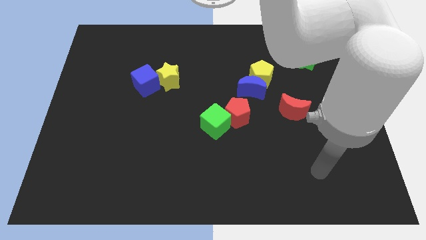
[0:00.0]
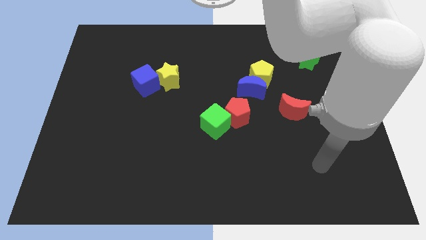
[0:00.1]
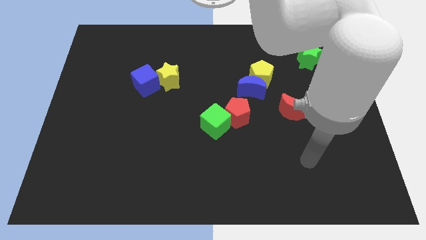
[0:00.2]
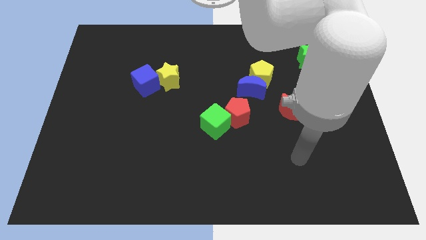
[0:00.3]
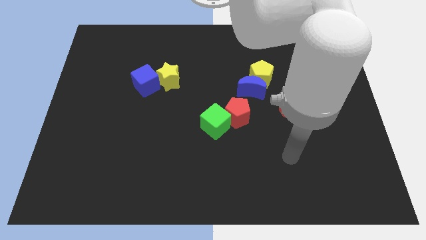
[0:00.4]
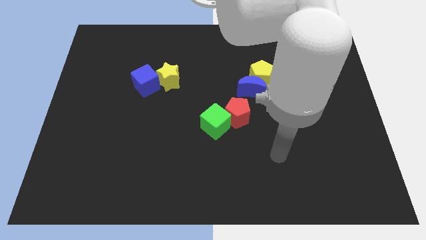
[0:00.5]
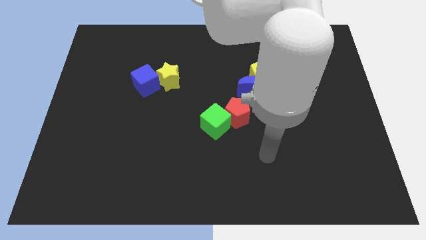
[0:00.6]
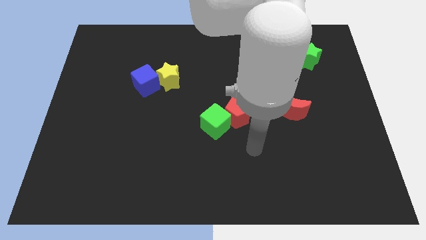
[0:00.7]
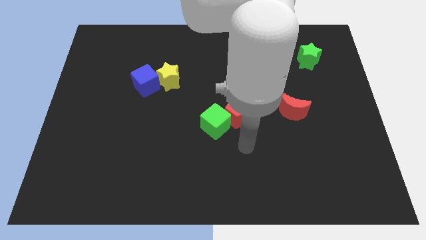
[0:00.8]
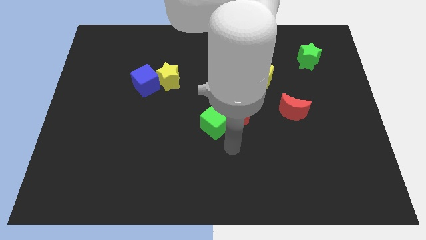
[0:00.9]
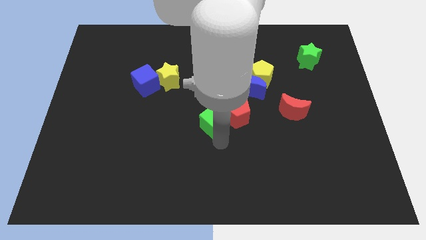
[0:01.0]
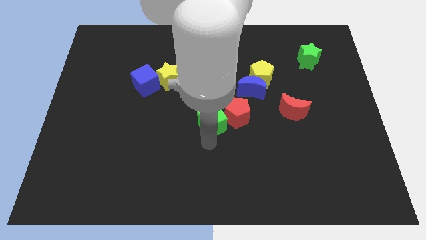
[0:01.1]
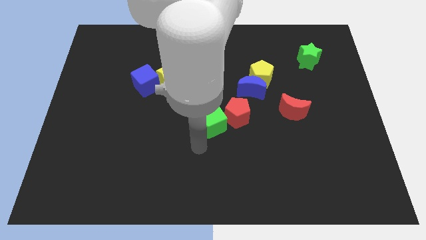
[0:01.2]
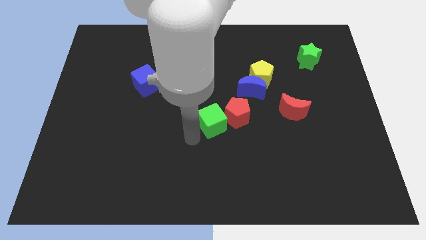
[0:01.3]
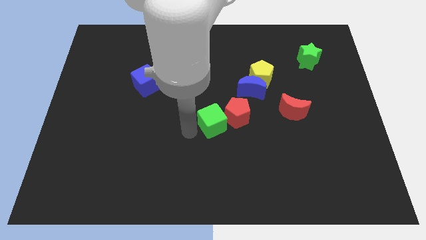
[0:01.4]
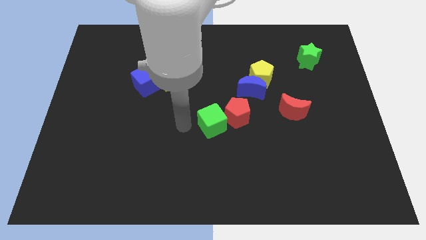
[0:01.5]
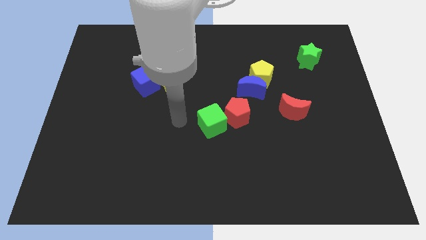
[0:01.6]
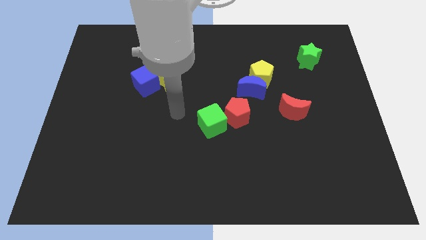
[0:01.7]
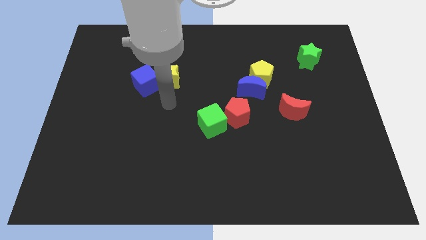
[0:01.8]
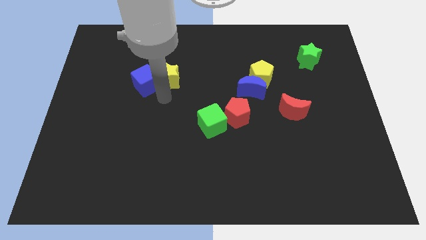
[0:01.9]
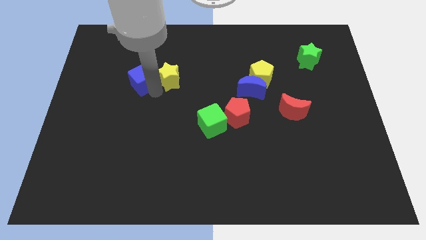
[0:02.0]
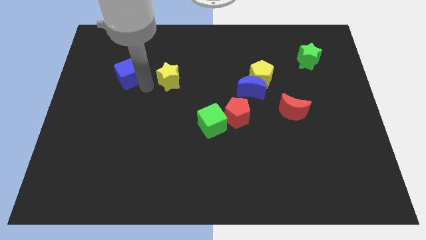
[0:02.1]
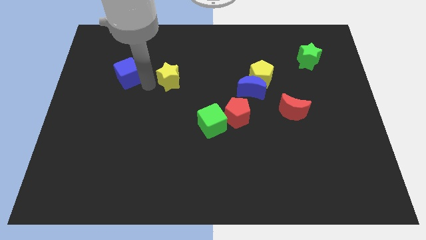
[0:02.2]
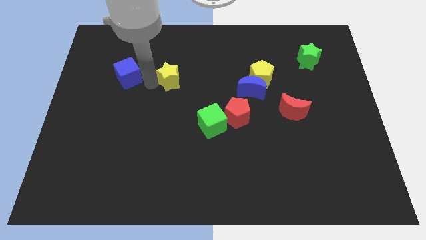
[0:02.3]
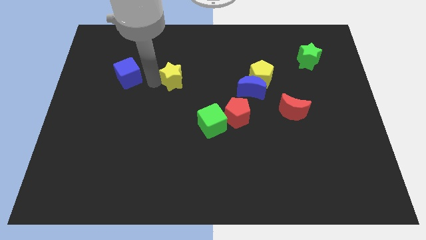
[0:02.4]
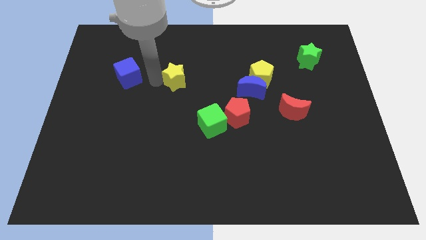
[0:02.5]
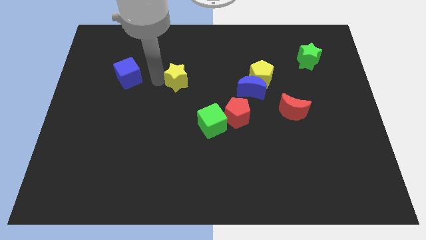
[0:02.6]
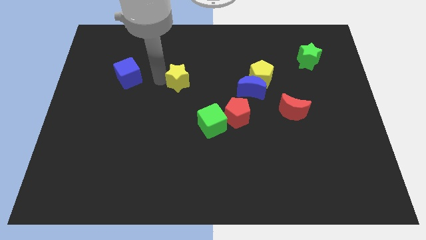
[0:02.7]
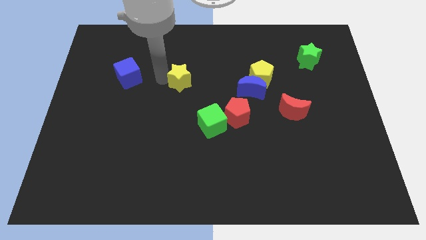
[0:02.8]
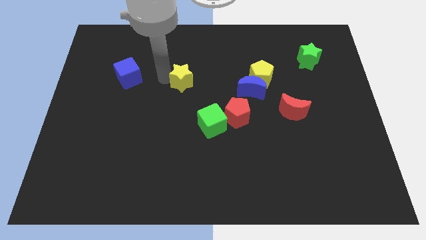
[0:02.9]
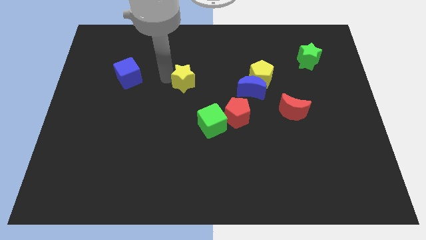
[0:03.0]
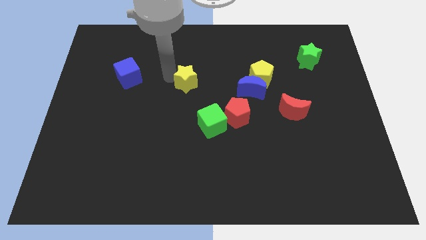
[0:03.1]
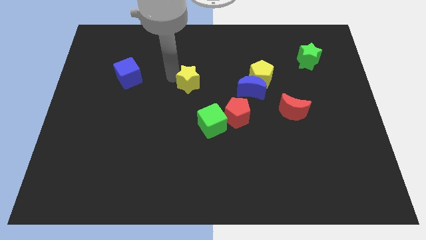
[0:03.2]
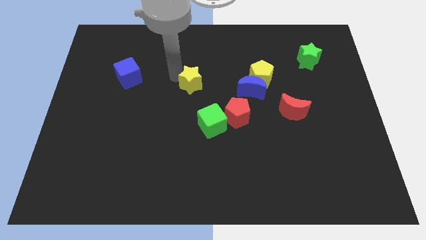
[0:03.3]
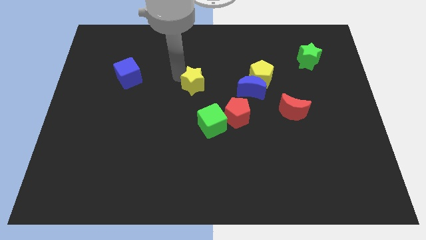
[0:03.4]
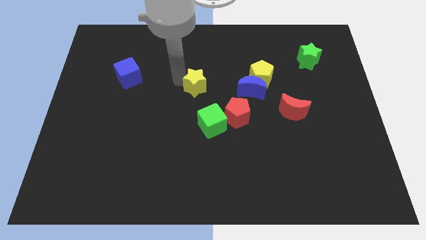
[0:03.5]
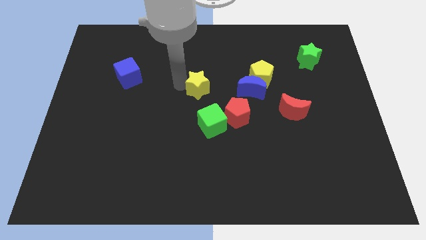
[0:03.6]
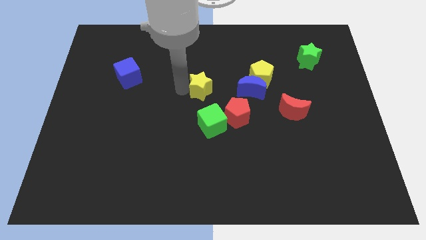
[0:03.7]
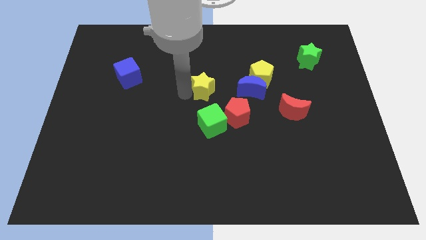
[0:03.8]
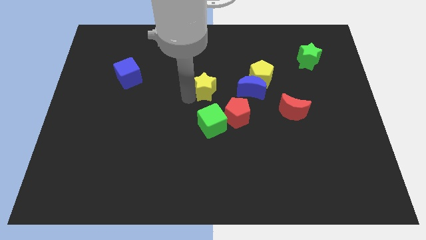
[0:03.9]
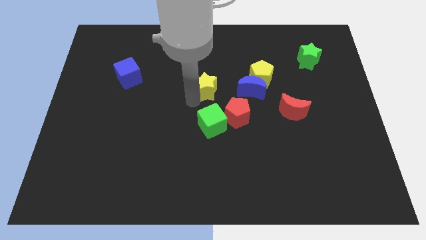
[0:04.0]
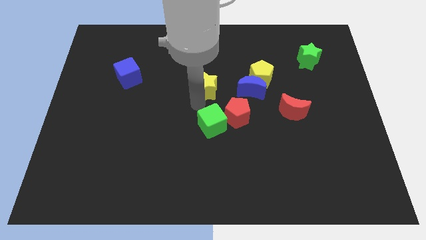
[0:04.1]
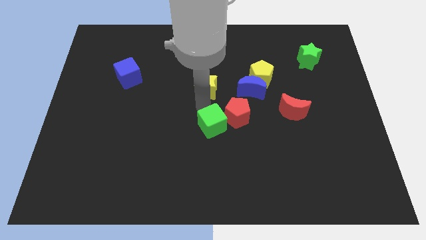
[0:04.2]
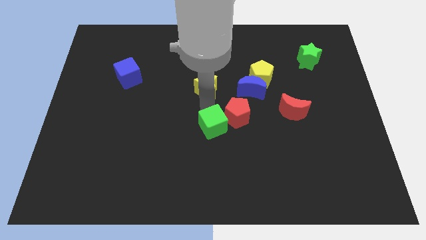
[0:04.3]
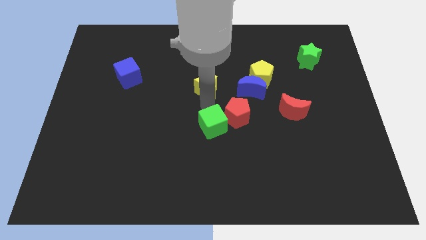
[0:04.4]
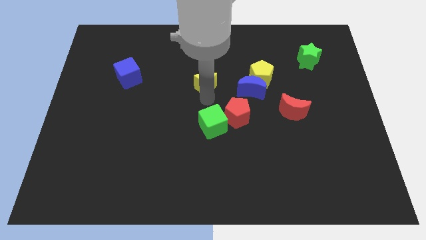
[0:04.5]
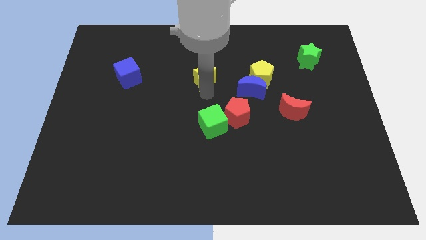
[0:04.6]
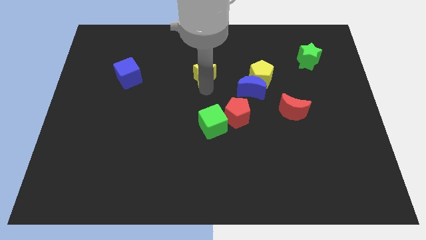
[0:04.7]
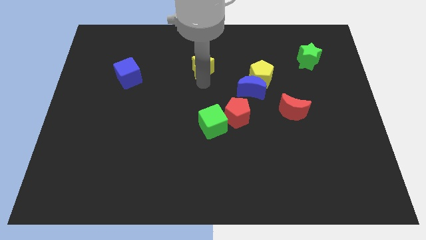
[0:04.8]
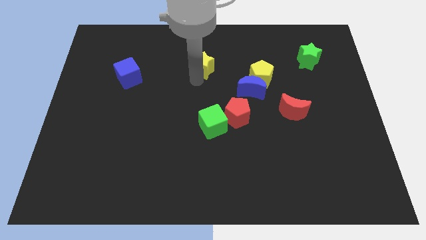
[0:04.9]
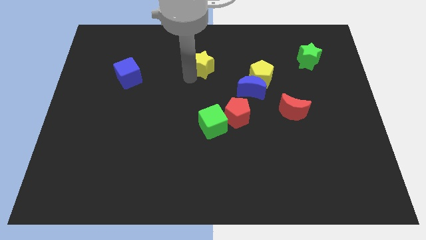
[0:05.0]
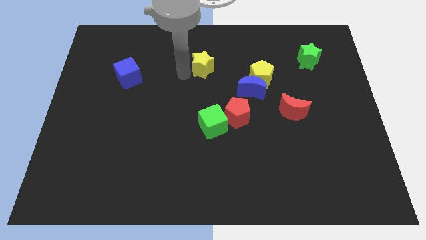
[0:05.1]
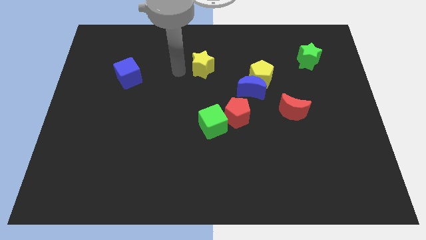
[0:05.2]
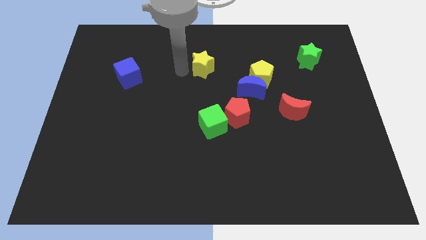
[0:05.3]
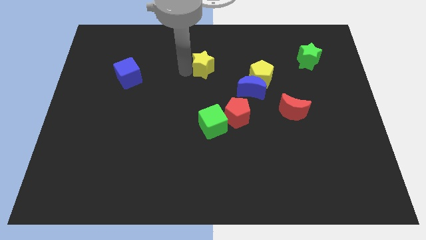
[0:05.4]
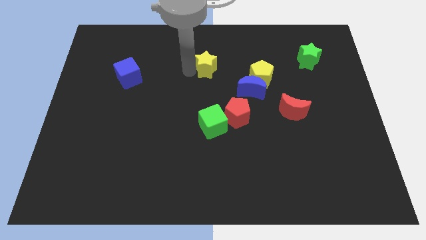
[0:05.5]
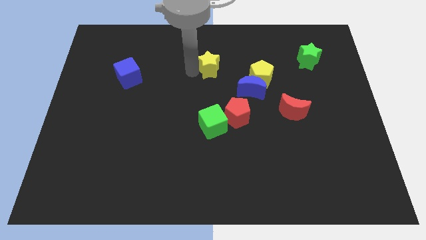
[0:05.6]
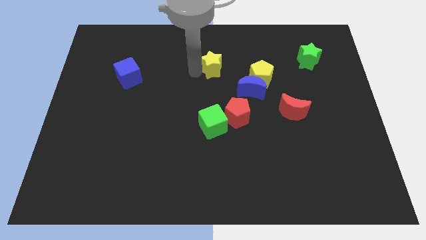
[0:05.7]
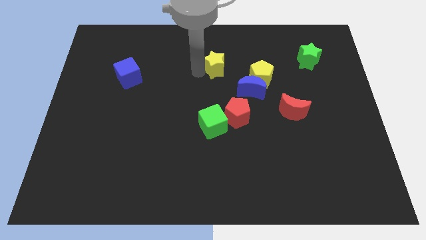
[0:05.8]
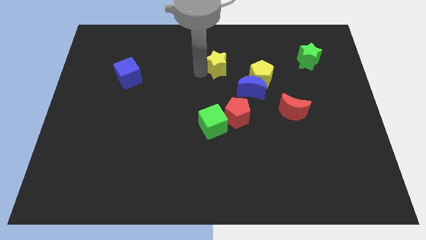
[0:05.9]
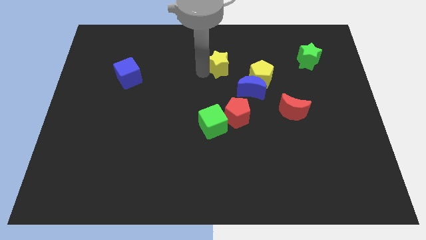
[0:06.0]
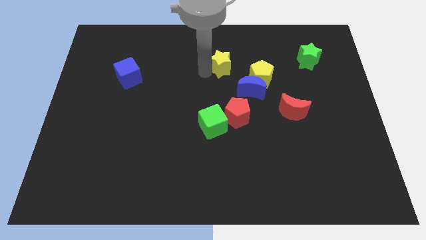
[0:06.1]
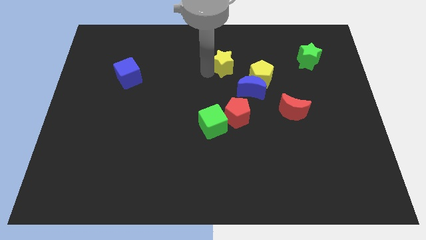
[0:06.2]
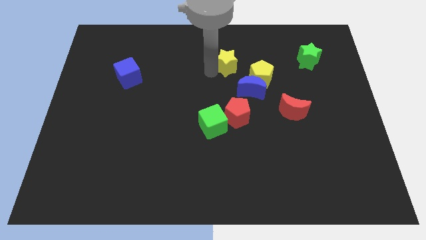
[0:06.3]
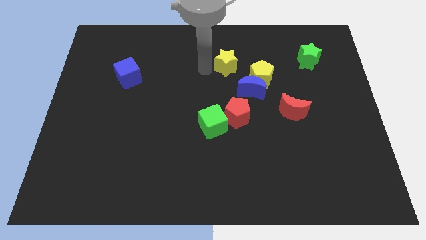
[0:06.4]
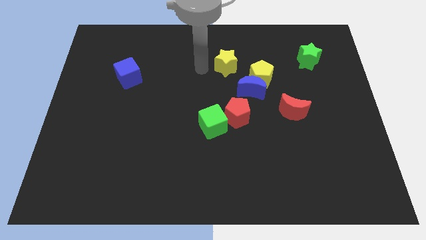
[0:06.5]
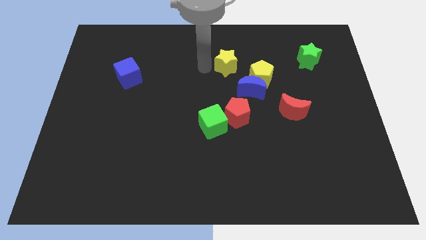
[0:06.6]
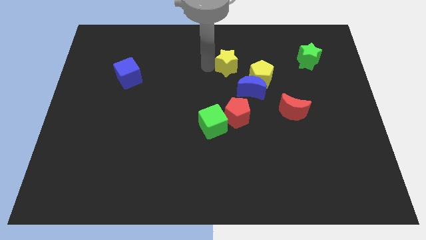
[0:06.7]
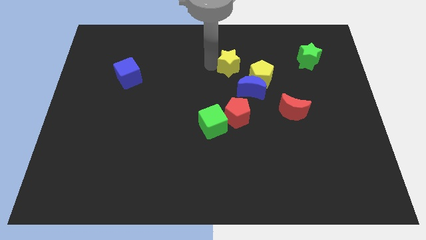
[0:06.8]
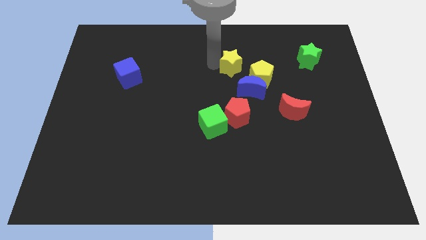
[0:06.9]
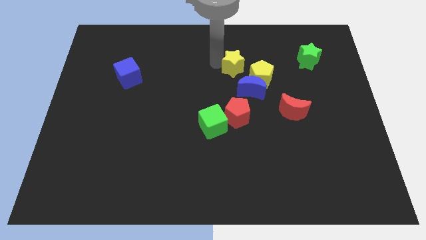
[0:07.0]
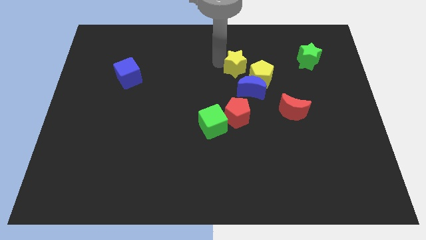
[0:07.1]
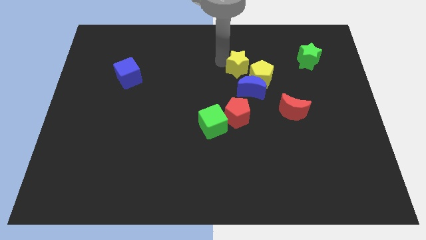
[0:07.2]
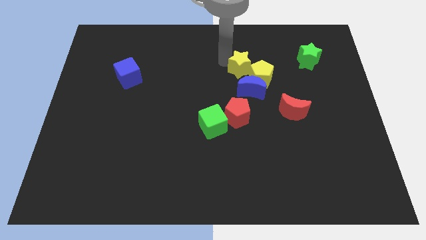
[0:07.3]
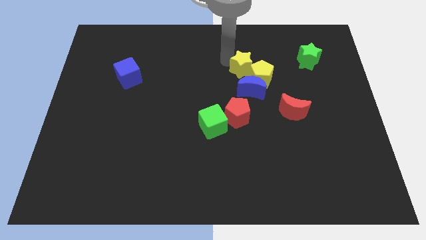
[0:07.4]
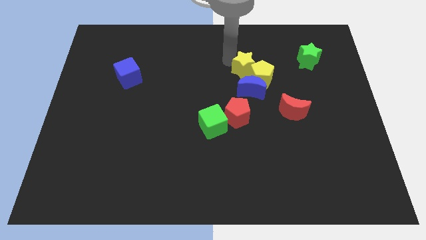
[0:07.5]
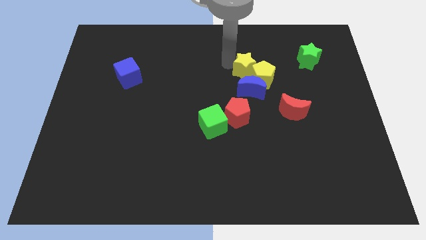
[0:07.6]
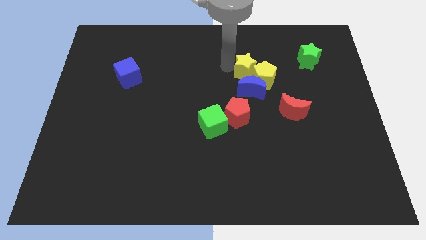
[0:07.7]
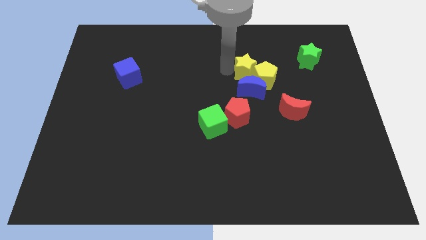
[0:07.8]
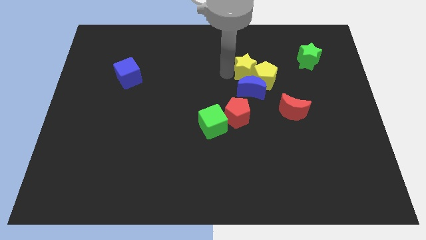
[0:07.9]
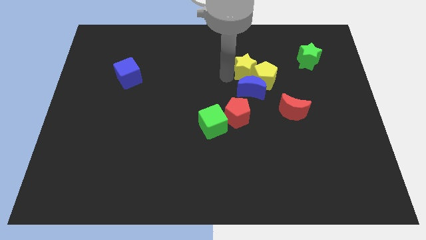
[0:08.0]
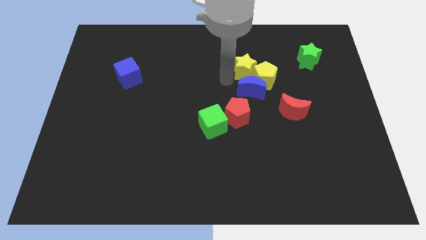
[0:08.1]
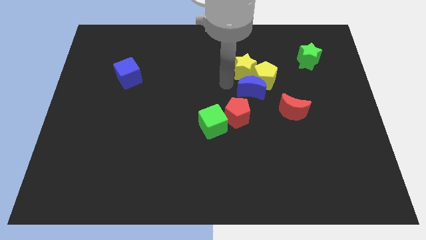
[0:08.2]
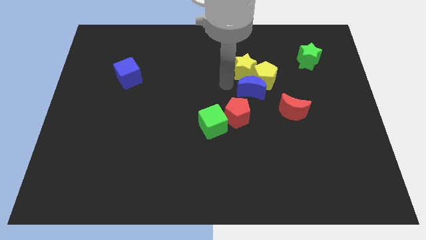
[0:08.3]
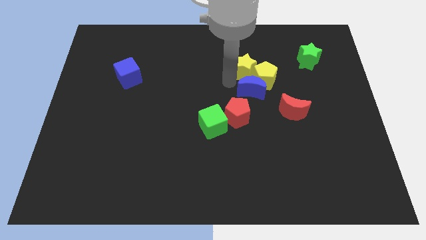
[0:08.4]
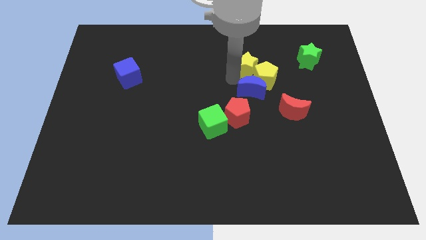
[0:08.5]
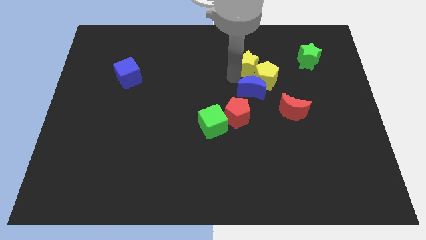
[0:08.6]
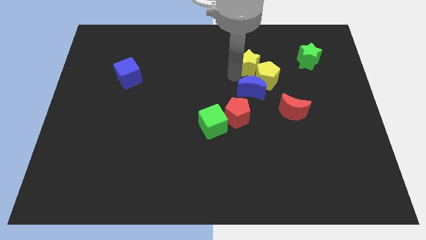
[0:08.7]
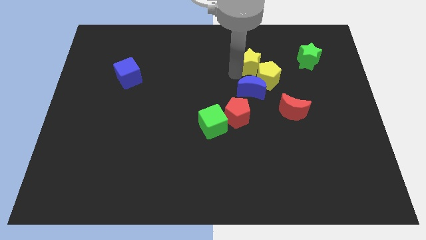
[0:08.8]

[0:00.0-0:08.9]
move the yellow star left of the green star
